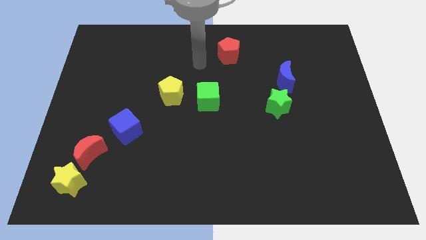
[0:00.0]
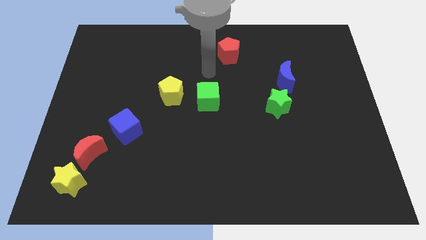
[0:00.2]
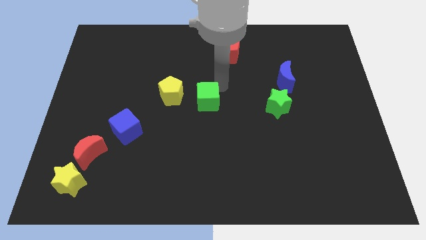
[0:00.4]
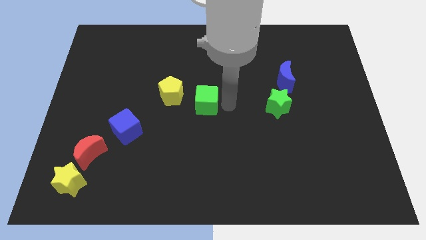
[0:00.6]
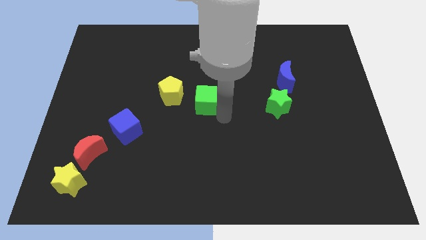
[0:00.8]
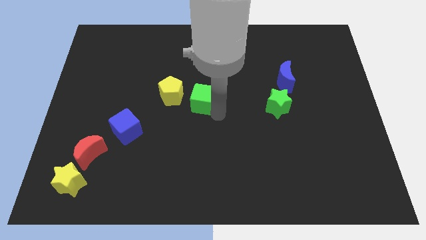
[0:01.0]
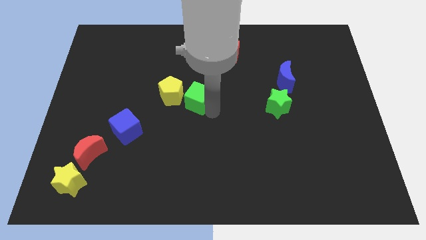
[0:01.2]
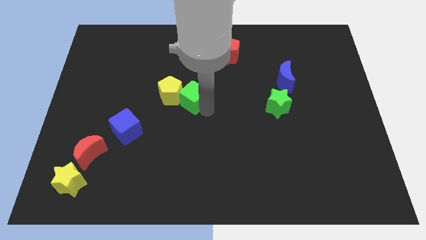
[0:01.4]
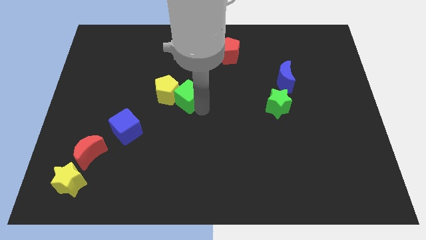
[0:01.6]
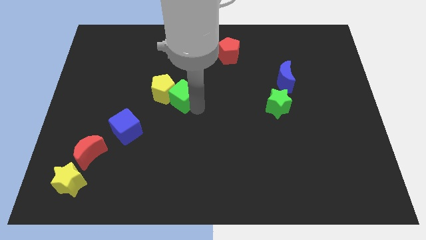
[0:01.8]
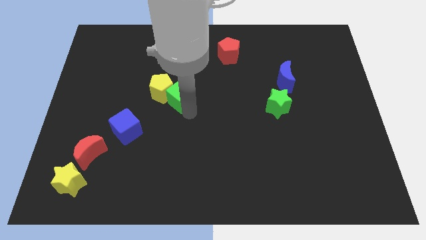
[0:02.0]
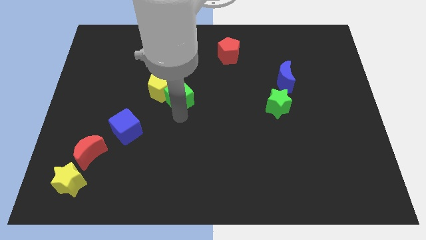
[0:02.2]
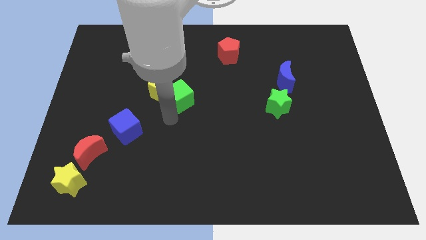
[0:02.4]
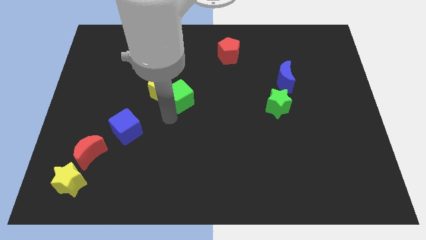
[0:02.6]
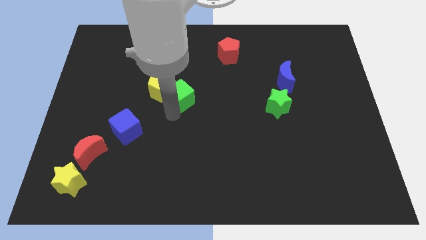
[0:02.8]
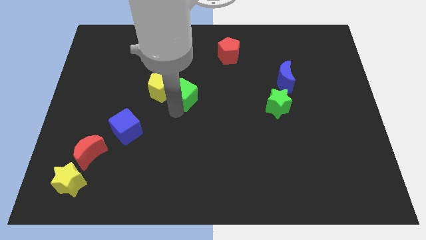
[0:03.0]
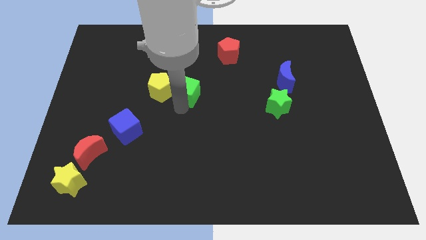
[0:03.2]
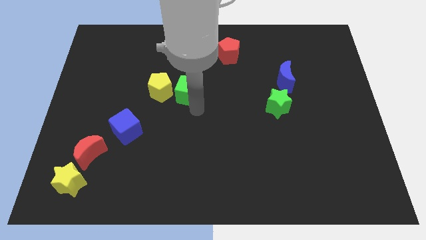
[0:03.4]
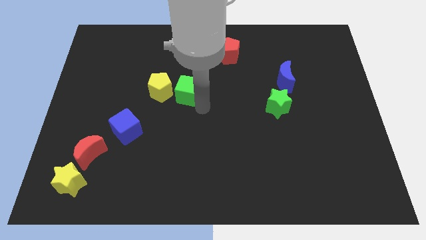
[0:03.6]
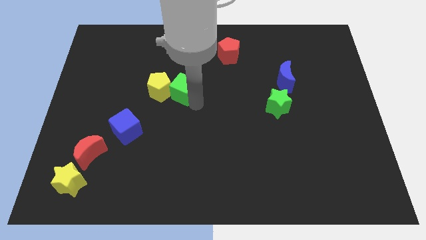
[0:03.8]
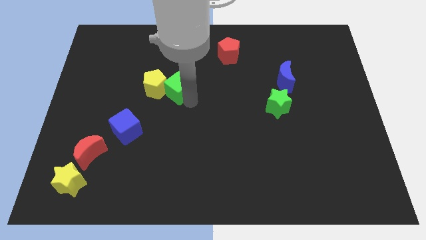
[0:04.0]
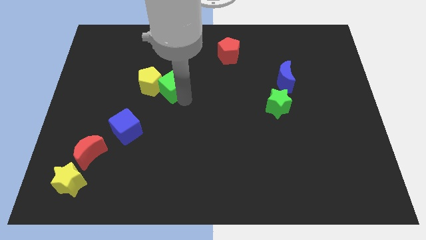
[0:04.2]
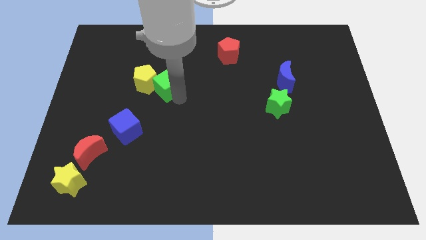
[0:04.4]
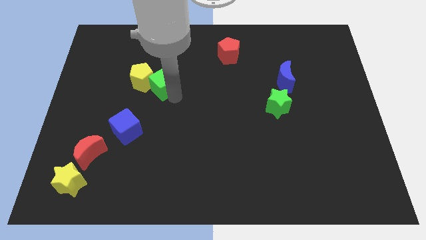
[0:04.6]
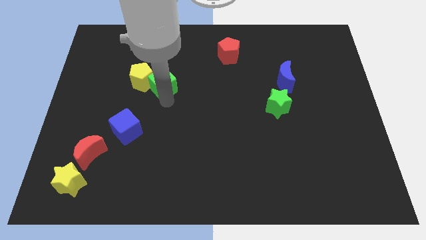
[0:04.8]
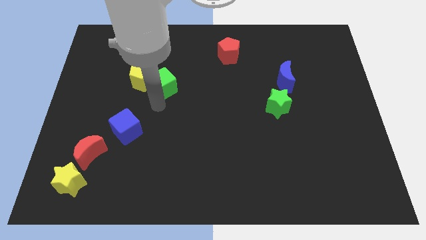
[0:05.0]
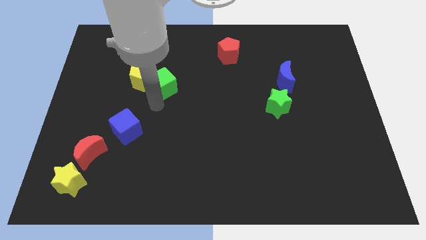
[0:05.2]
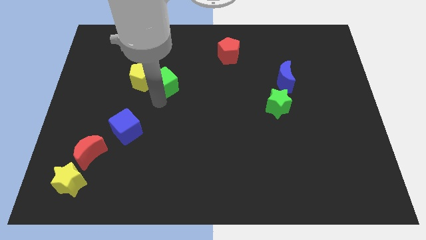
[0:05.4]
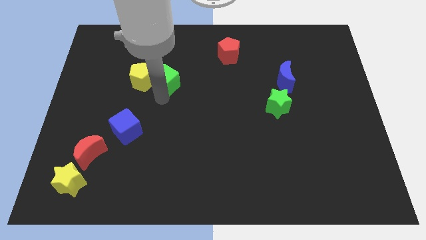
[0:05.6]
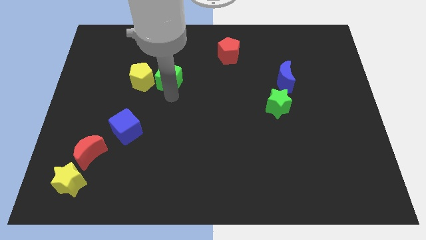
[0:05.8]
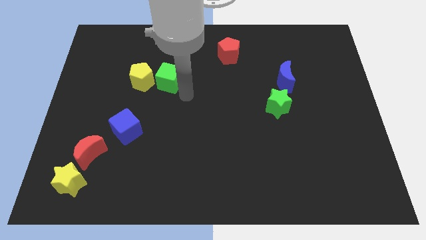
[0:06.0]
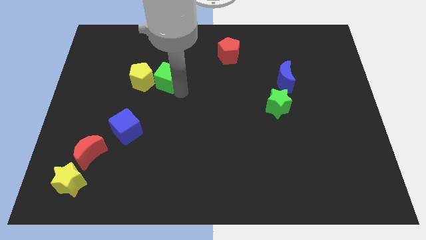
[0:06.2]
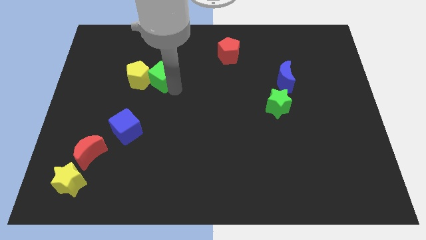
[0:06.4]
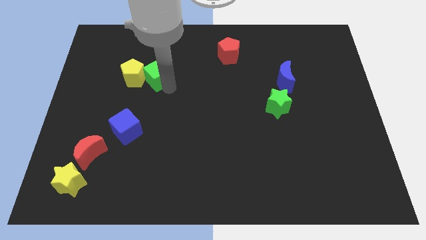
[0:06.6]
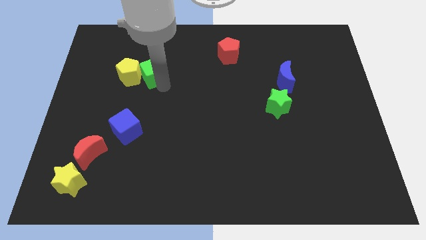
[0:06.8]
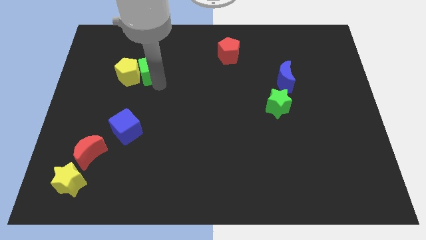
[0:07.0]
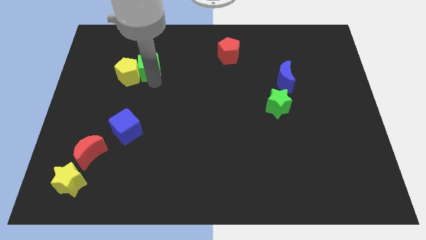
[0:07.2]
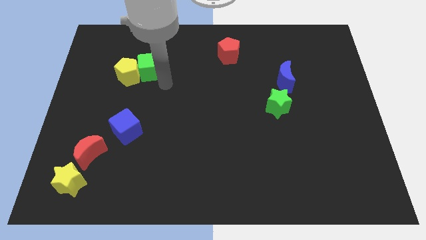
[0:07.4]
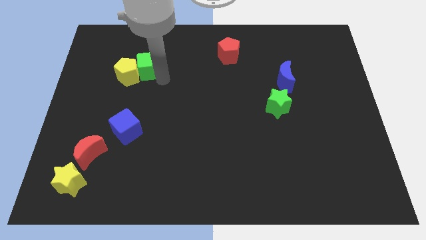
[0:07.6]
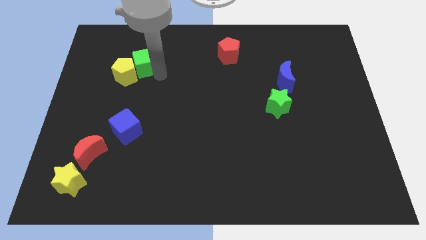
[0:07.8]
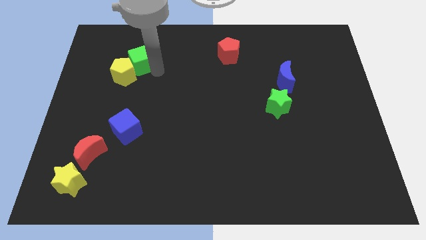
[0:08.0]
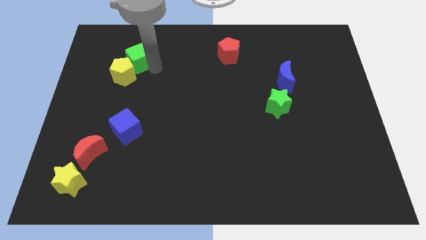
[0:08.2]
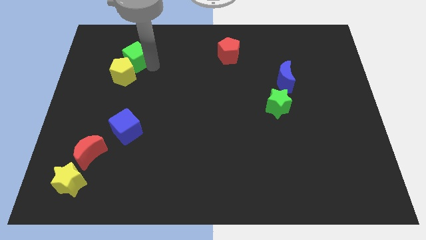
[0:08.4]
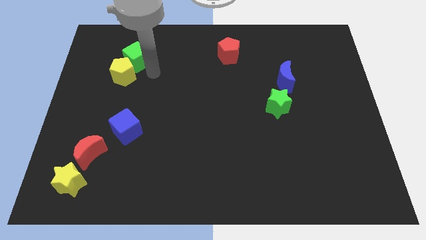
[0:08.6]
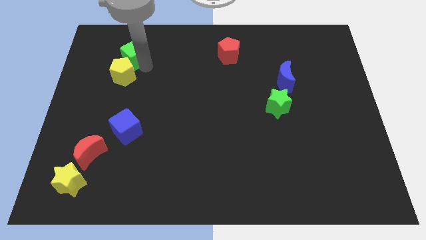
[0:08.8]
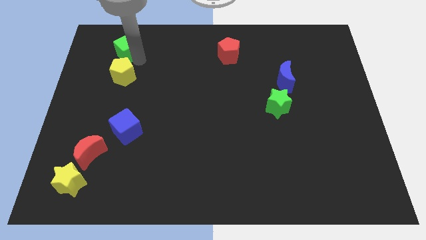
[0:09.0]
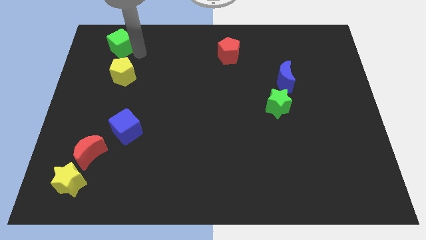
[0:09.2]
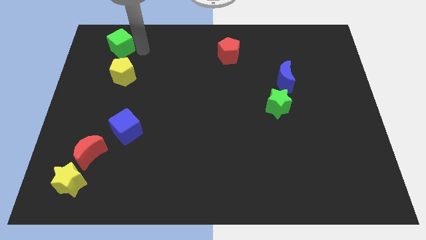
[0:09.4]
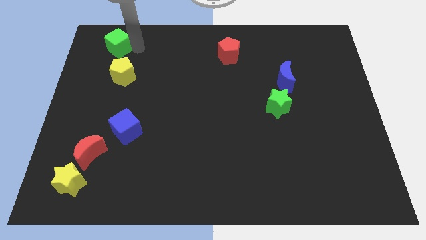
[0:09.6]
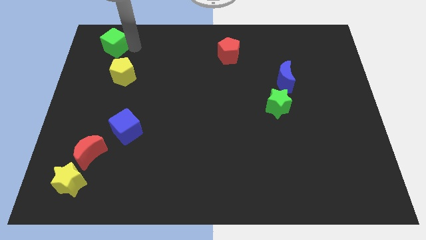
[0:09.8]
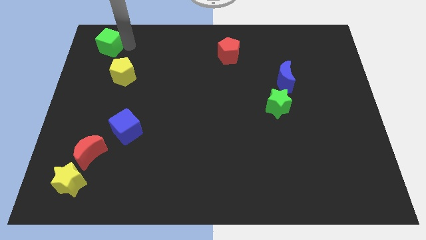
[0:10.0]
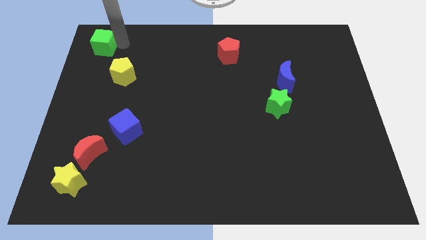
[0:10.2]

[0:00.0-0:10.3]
put the green cube to the top left corner

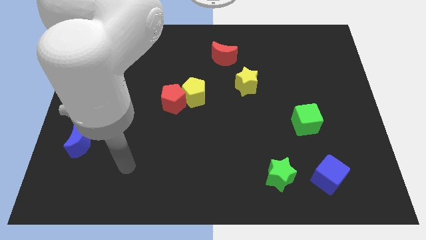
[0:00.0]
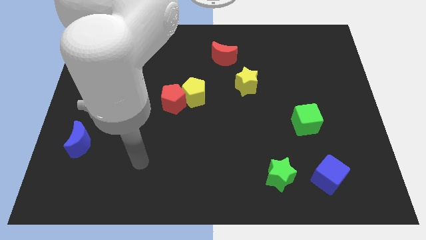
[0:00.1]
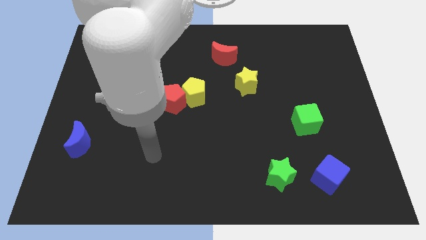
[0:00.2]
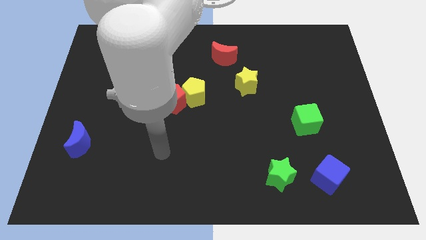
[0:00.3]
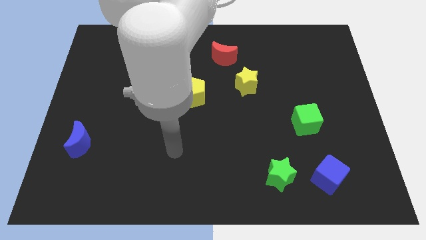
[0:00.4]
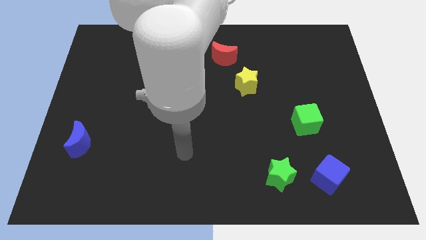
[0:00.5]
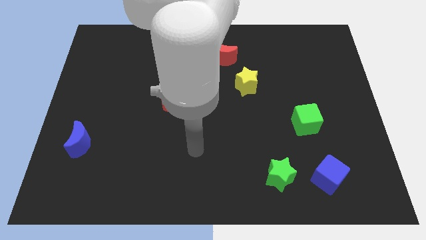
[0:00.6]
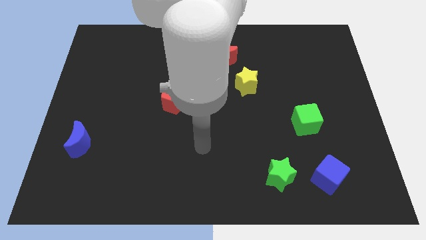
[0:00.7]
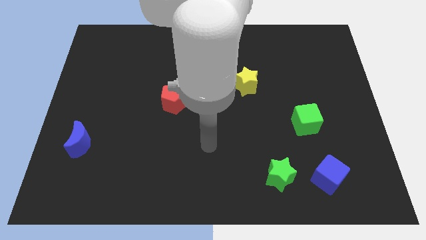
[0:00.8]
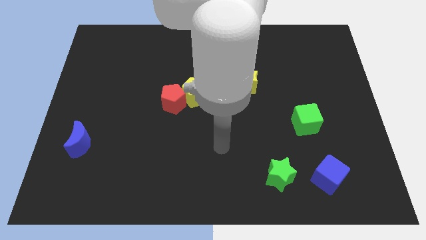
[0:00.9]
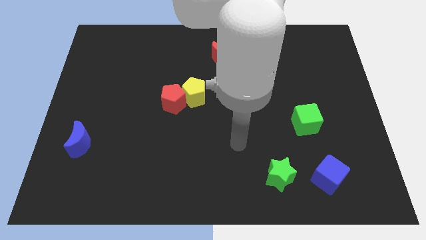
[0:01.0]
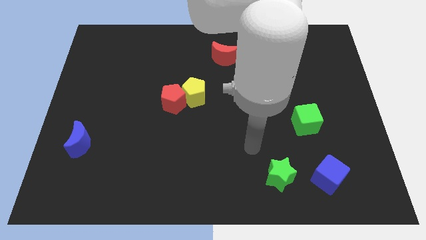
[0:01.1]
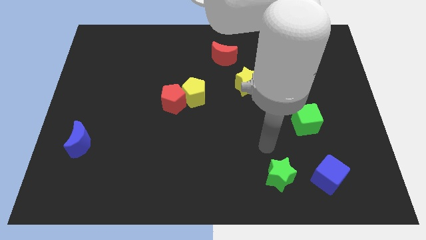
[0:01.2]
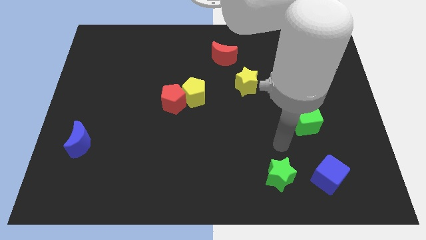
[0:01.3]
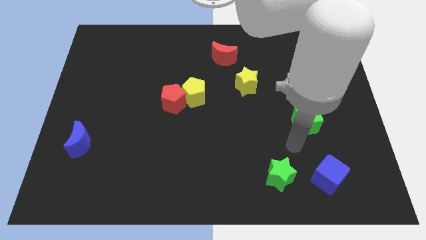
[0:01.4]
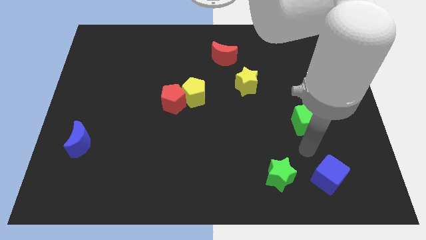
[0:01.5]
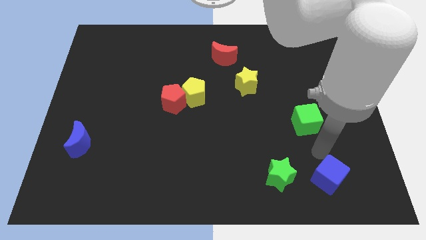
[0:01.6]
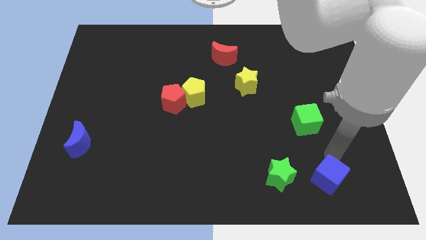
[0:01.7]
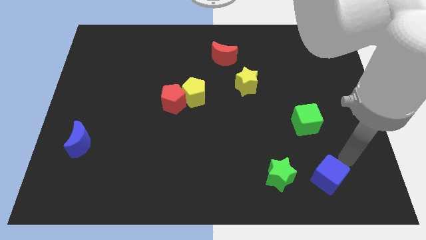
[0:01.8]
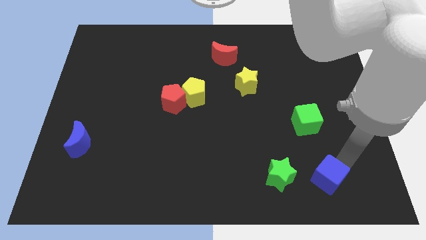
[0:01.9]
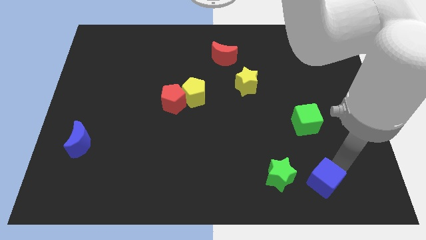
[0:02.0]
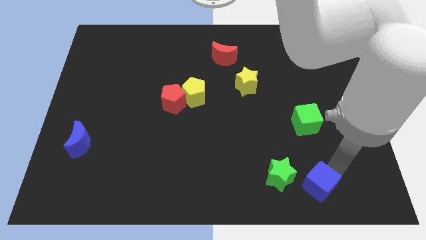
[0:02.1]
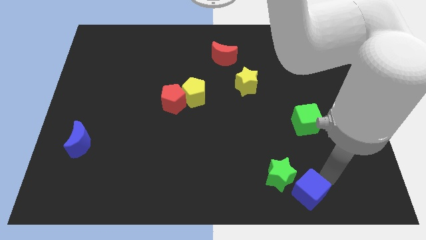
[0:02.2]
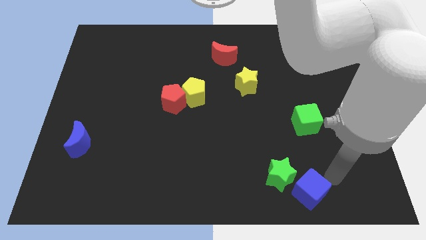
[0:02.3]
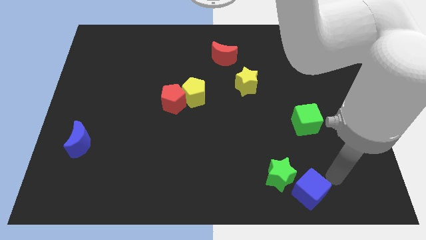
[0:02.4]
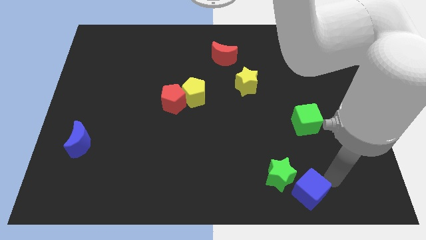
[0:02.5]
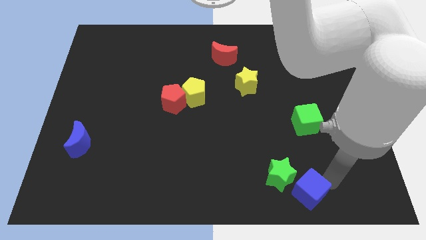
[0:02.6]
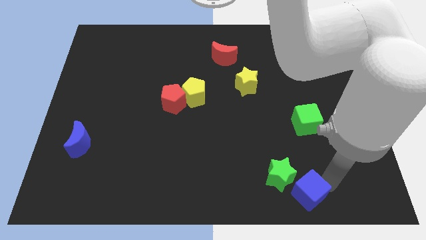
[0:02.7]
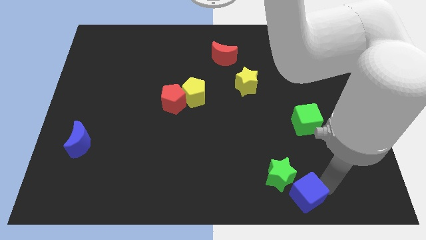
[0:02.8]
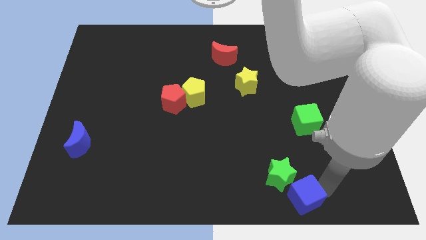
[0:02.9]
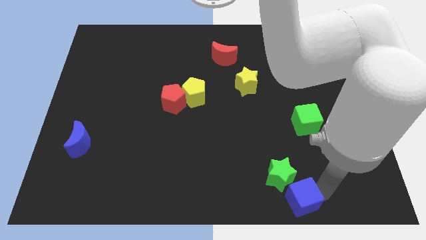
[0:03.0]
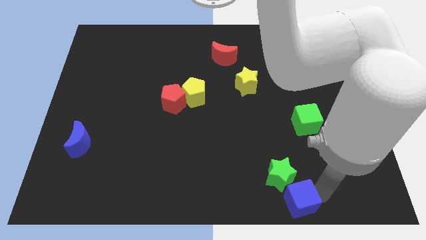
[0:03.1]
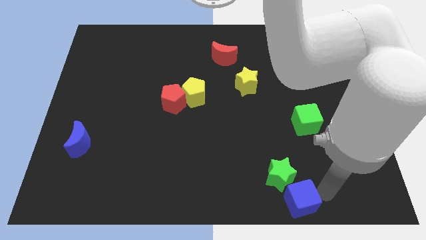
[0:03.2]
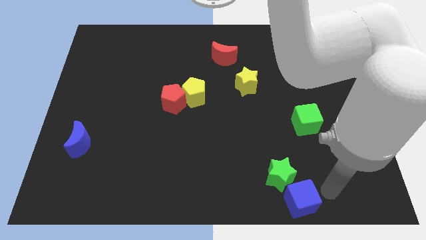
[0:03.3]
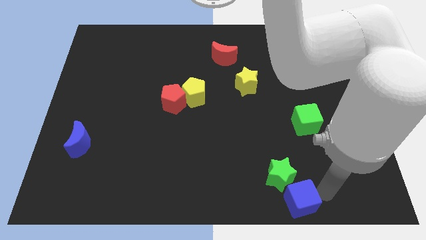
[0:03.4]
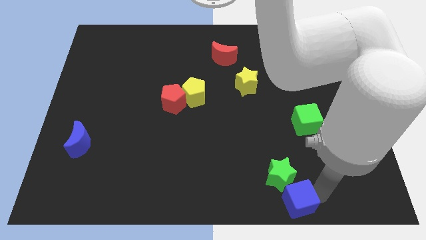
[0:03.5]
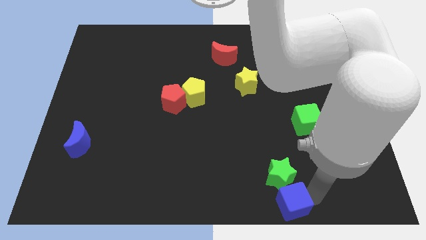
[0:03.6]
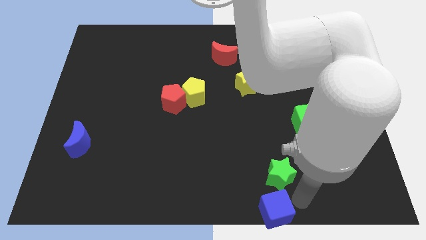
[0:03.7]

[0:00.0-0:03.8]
slide the blue cube to the bottom side
